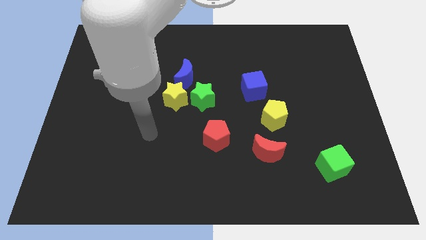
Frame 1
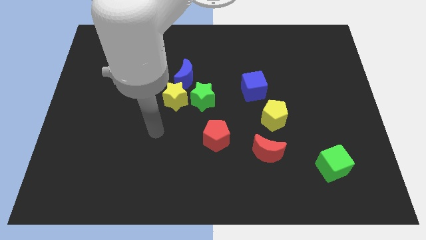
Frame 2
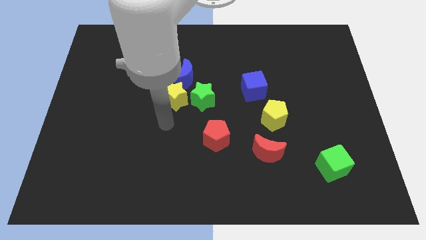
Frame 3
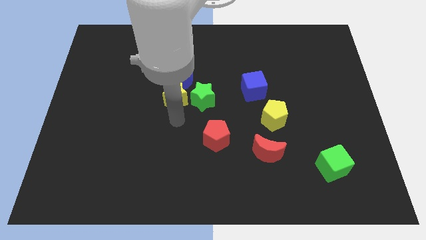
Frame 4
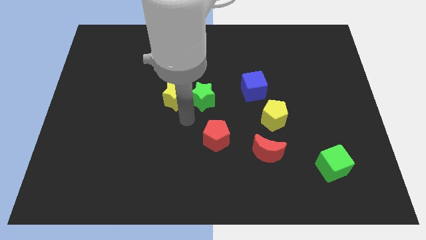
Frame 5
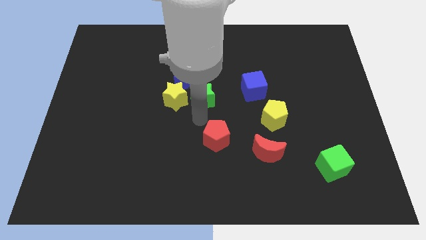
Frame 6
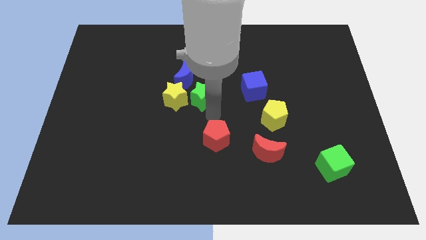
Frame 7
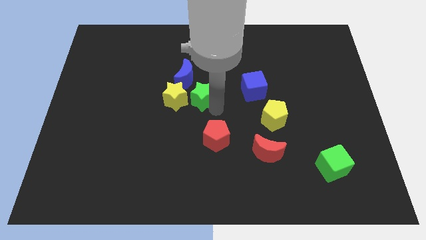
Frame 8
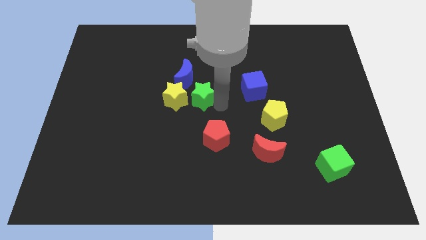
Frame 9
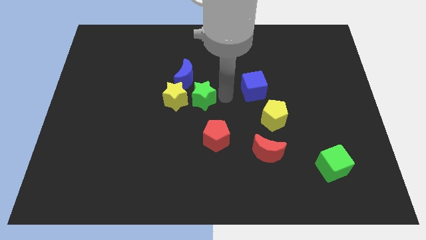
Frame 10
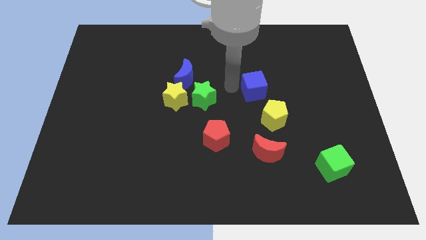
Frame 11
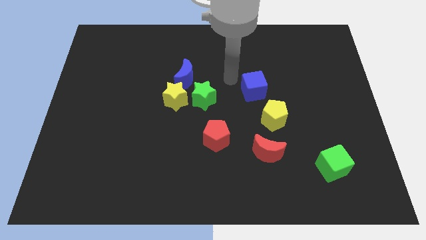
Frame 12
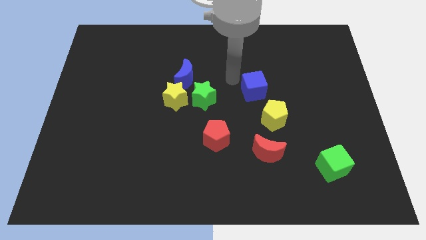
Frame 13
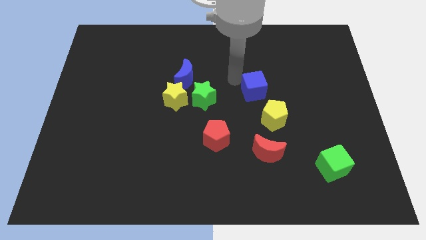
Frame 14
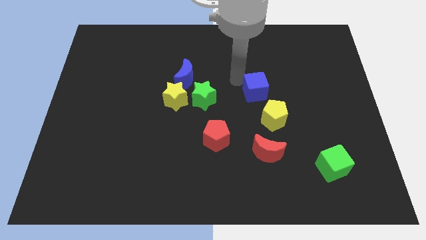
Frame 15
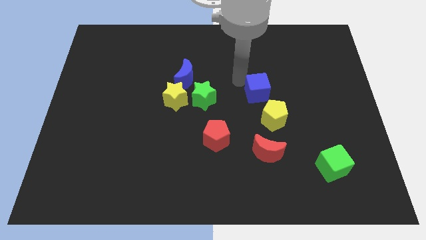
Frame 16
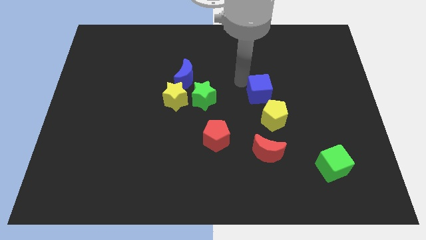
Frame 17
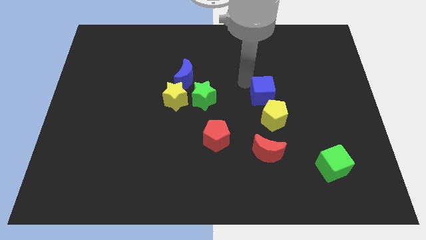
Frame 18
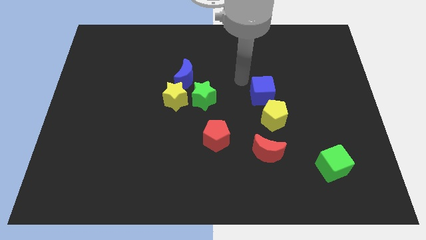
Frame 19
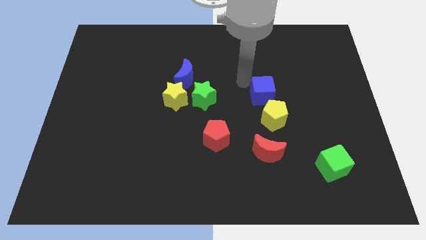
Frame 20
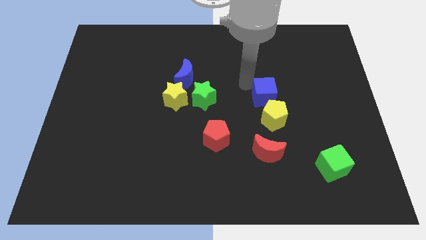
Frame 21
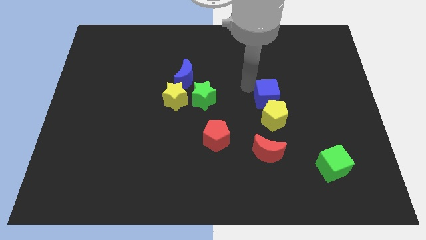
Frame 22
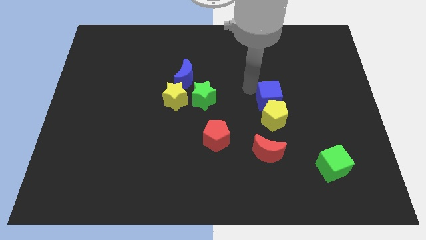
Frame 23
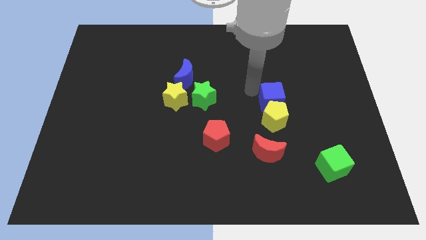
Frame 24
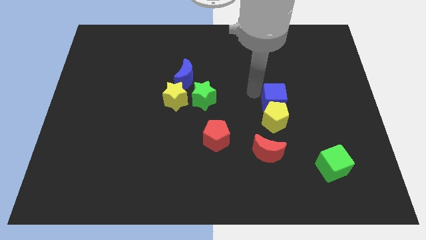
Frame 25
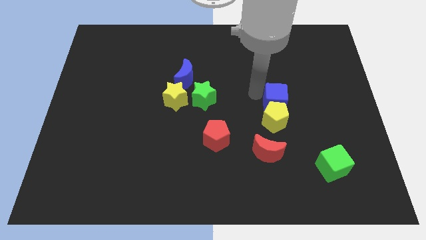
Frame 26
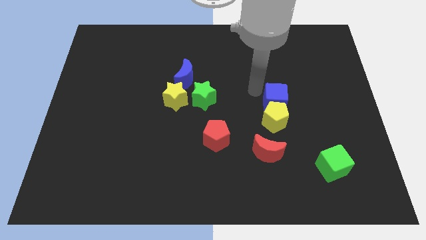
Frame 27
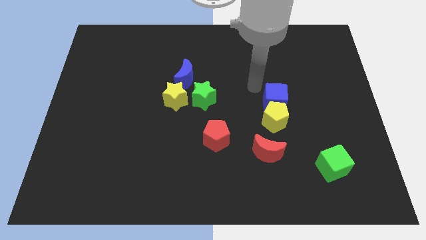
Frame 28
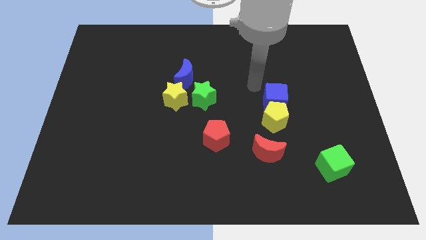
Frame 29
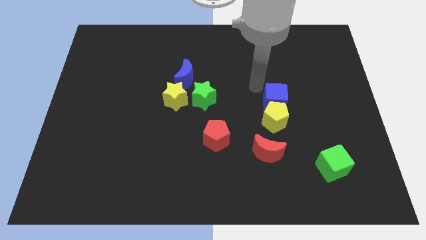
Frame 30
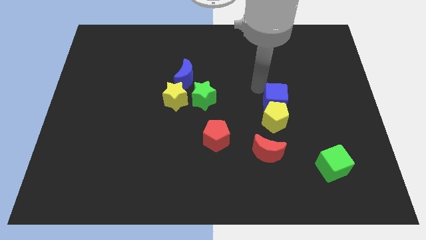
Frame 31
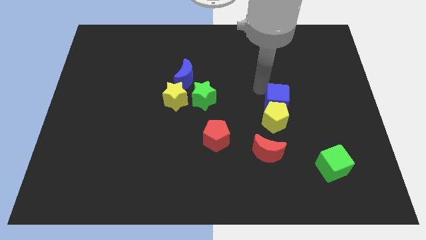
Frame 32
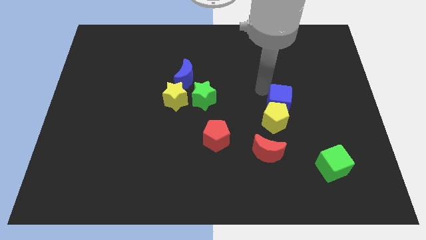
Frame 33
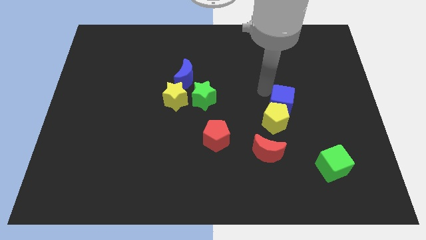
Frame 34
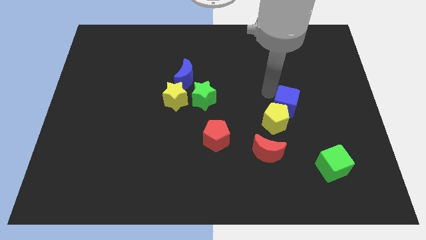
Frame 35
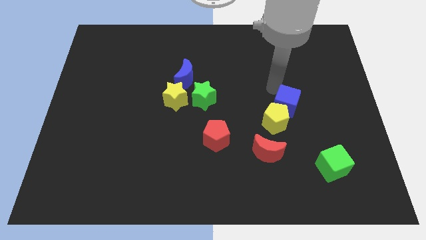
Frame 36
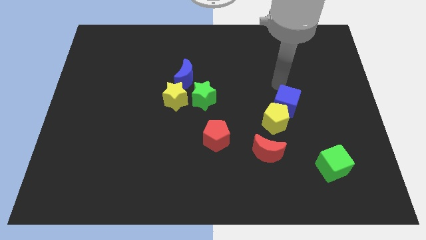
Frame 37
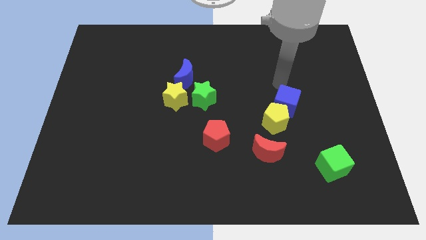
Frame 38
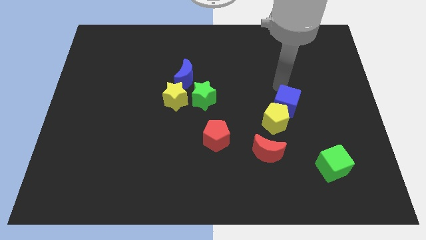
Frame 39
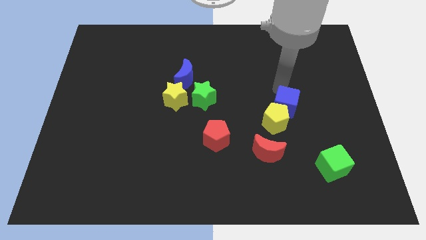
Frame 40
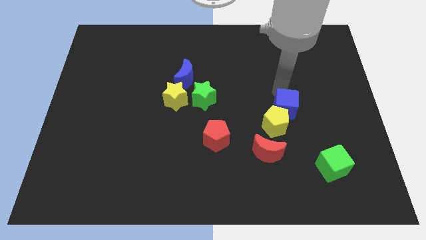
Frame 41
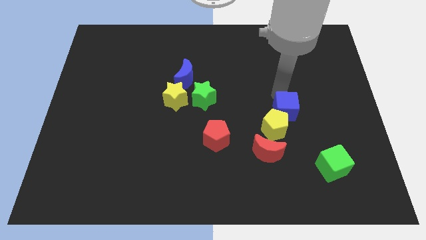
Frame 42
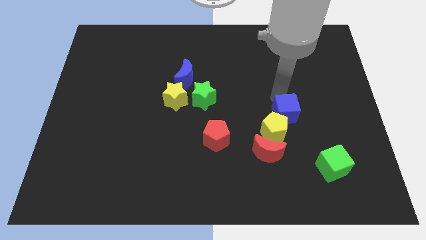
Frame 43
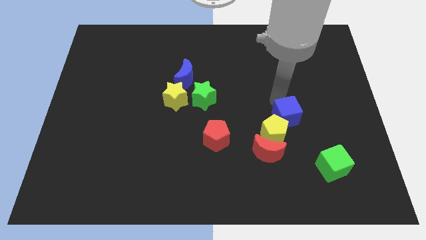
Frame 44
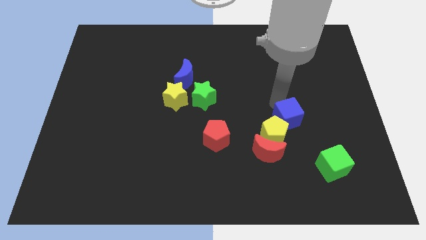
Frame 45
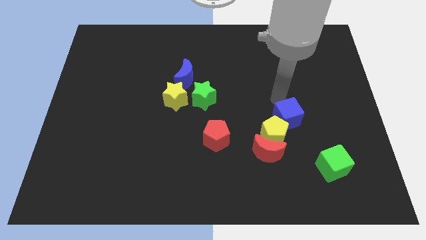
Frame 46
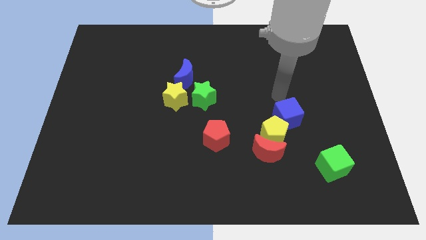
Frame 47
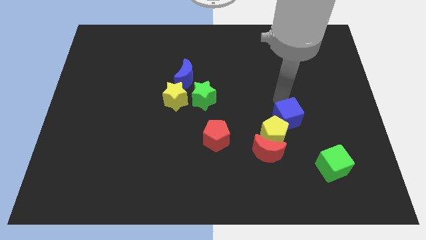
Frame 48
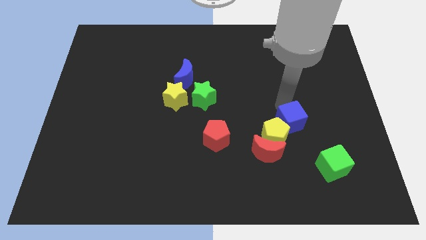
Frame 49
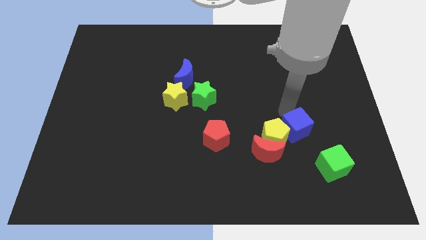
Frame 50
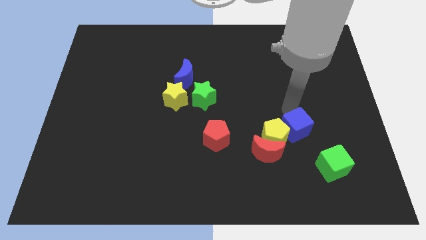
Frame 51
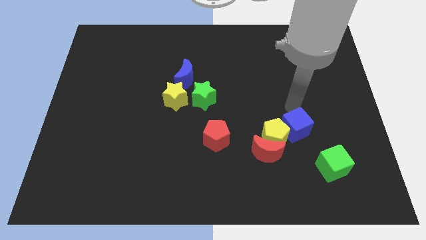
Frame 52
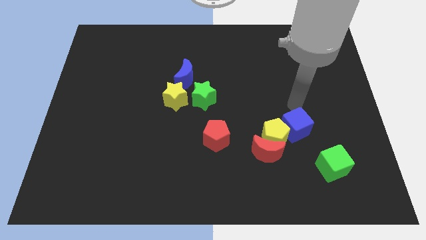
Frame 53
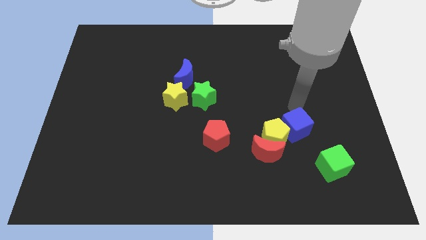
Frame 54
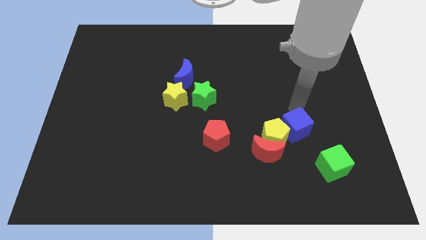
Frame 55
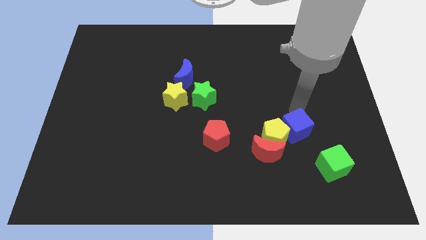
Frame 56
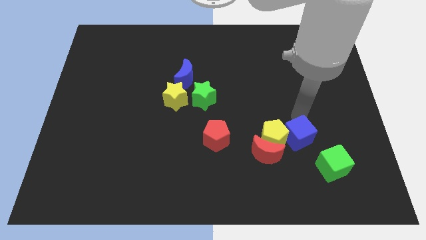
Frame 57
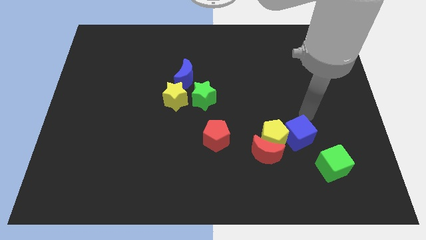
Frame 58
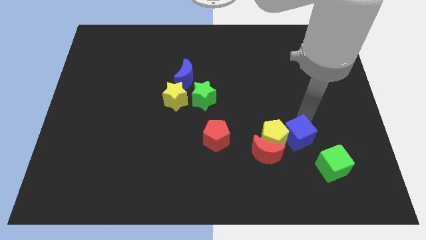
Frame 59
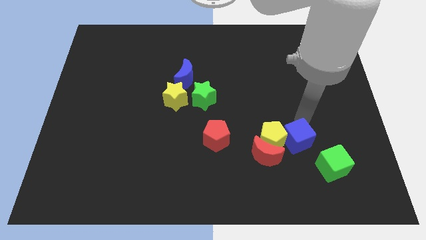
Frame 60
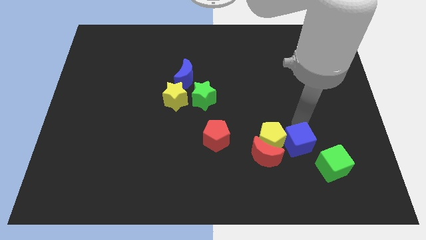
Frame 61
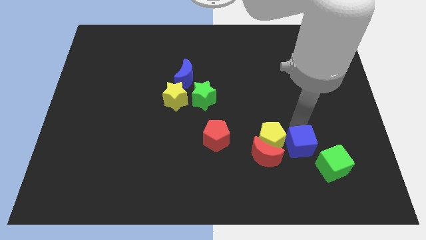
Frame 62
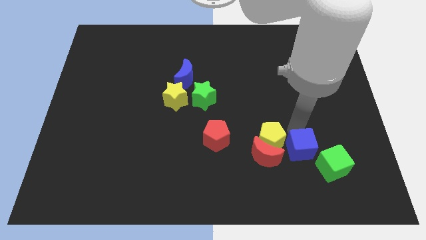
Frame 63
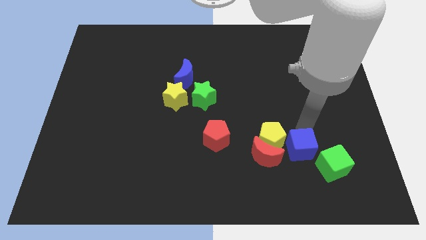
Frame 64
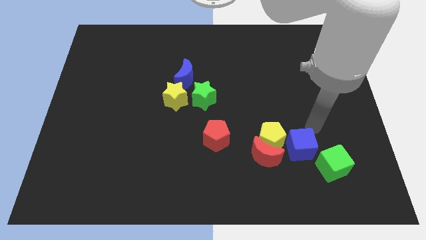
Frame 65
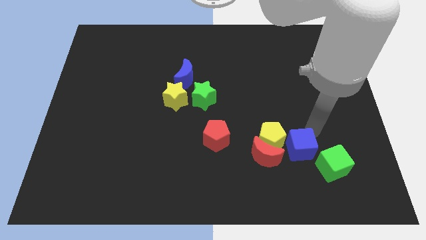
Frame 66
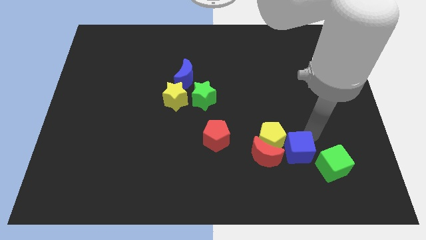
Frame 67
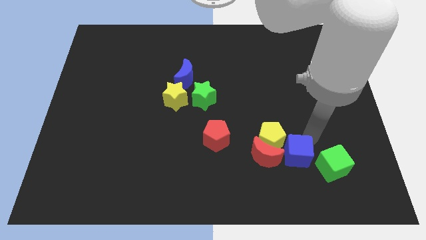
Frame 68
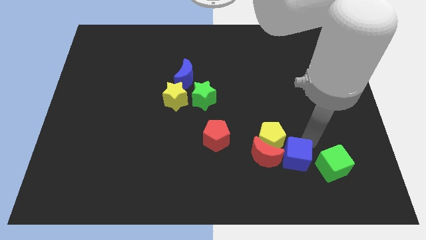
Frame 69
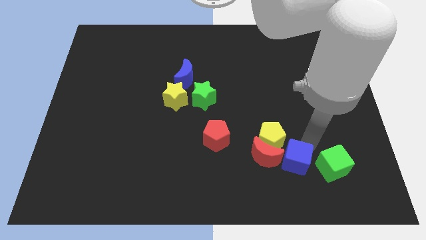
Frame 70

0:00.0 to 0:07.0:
slide the blue cube below the yellow pentagon

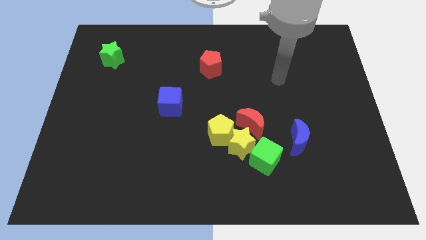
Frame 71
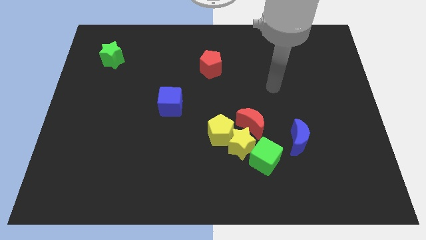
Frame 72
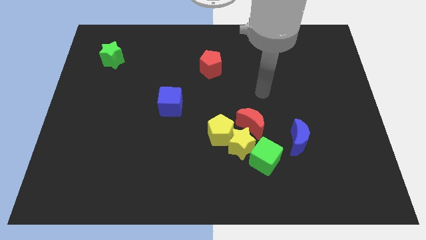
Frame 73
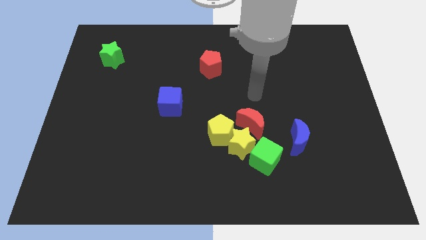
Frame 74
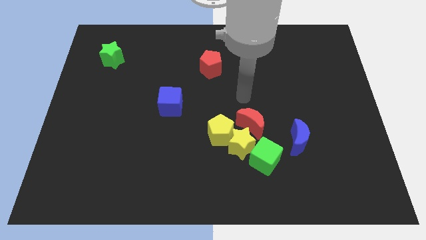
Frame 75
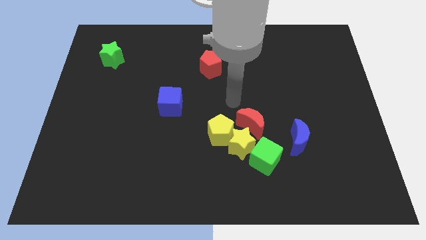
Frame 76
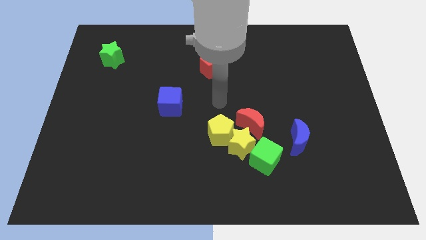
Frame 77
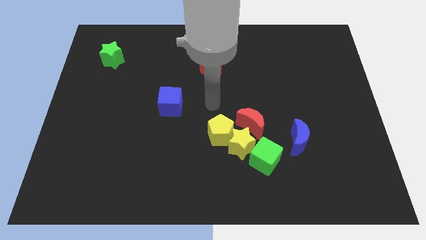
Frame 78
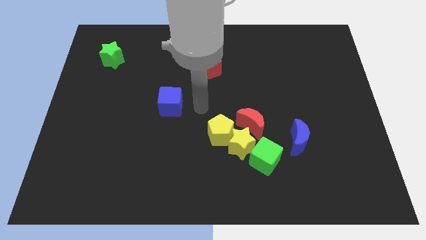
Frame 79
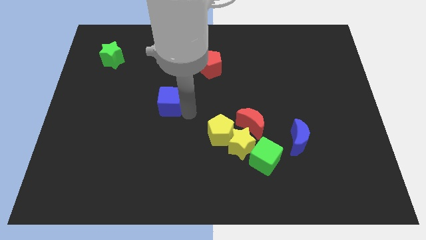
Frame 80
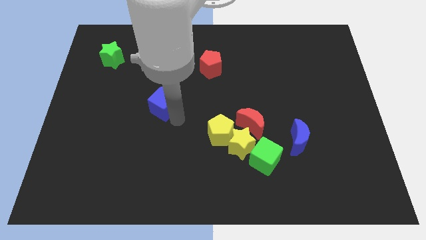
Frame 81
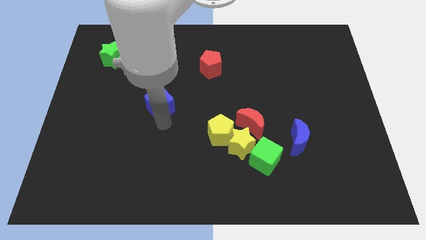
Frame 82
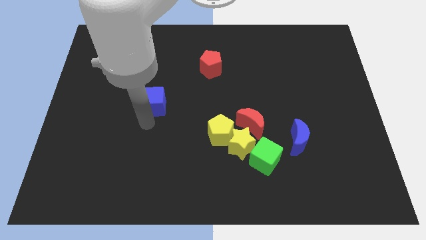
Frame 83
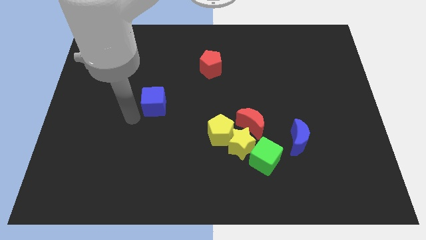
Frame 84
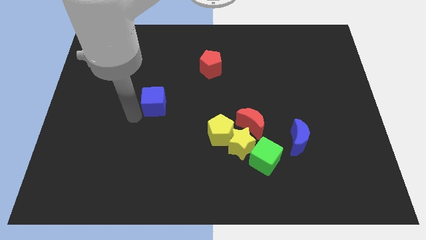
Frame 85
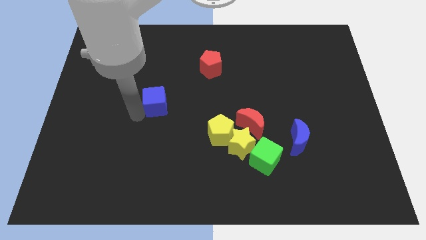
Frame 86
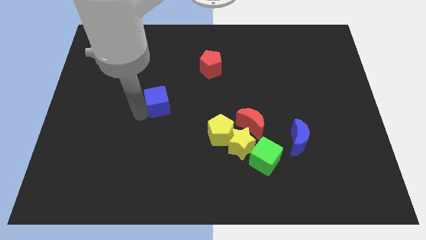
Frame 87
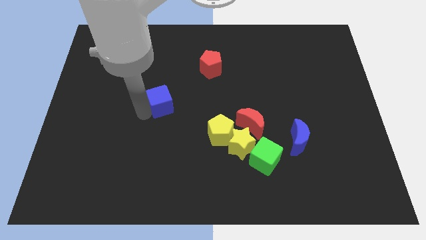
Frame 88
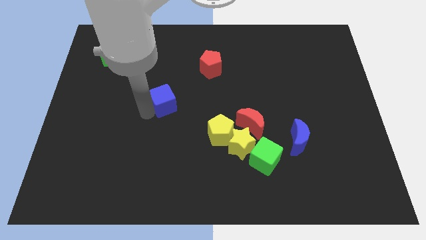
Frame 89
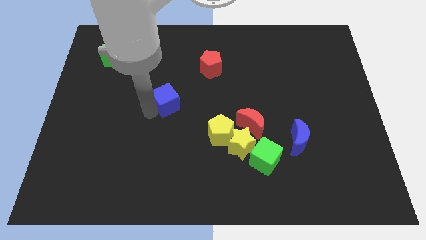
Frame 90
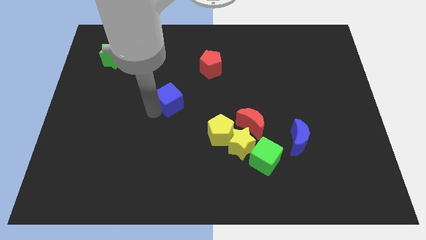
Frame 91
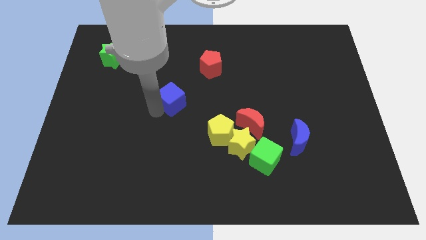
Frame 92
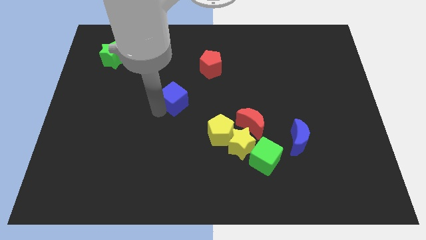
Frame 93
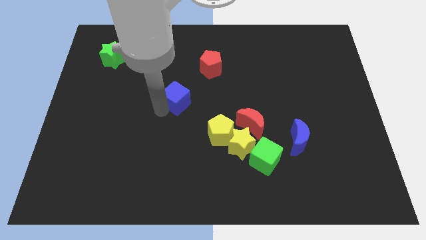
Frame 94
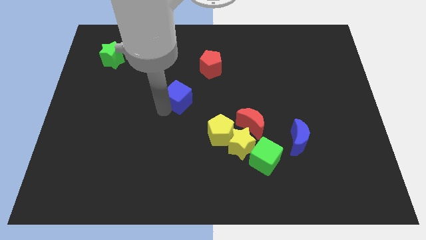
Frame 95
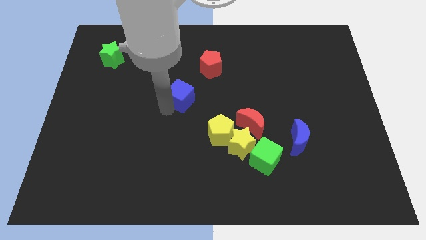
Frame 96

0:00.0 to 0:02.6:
move the blue cube diagonally down and to the left of the red pentagon
